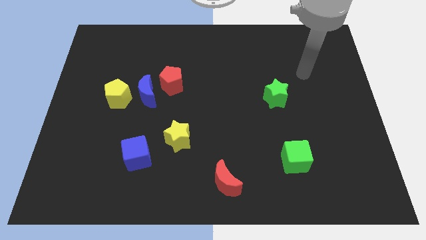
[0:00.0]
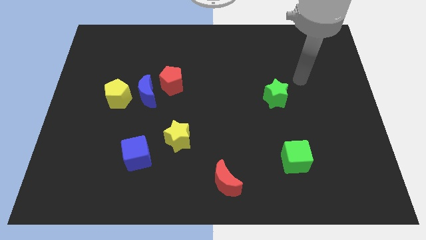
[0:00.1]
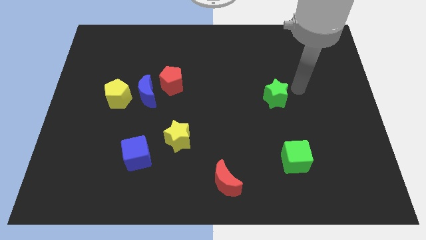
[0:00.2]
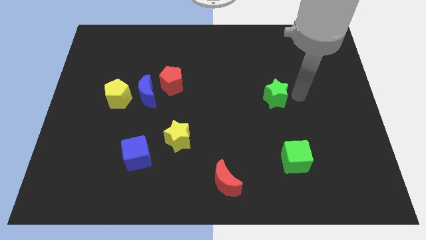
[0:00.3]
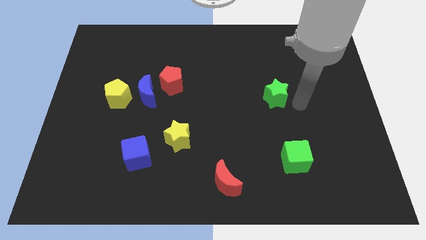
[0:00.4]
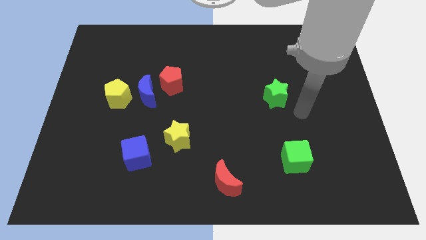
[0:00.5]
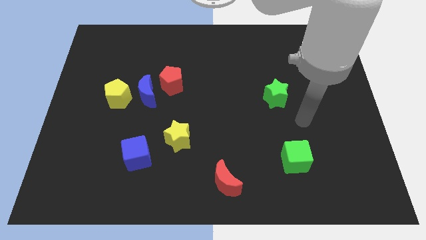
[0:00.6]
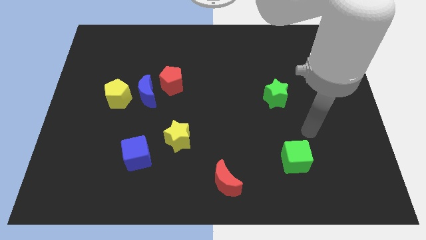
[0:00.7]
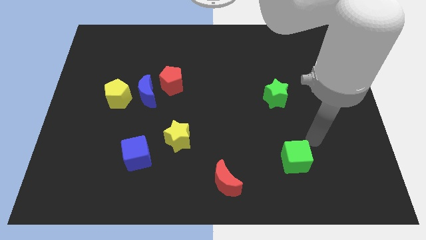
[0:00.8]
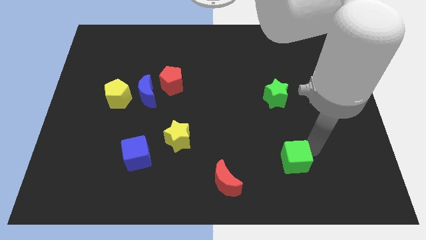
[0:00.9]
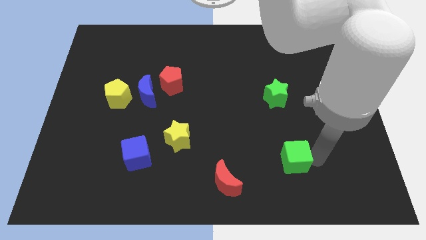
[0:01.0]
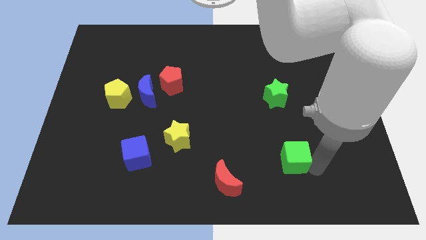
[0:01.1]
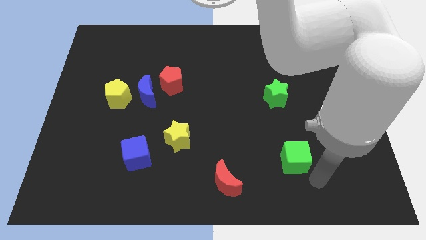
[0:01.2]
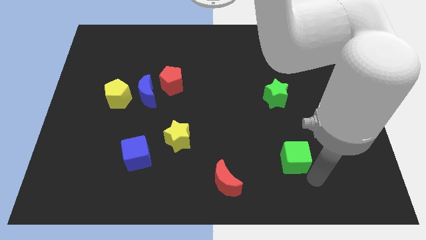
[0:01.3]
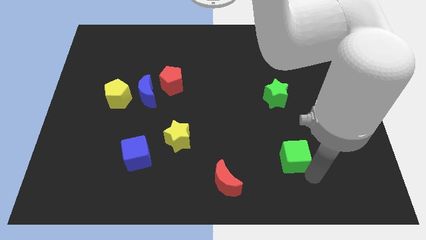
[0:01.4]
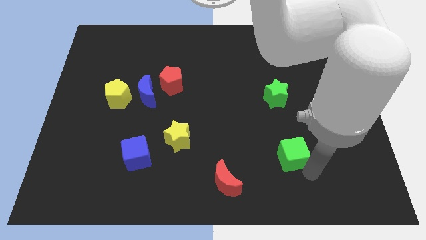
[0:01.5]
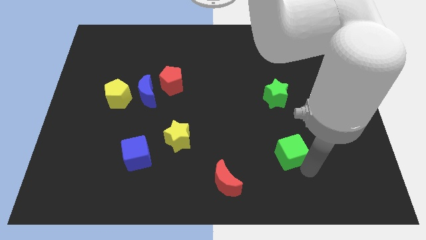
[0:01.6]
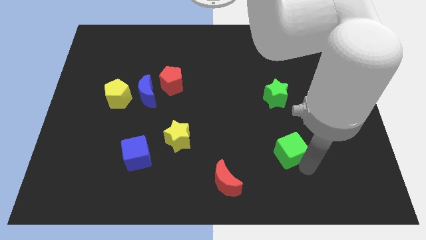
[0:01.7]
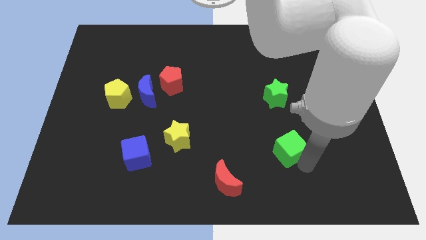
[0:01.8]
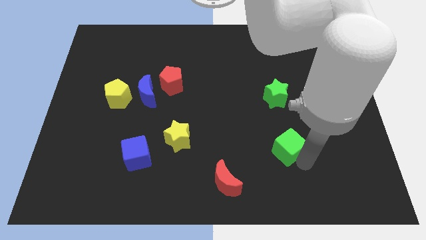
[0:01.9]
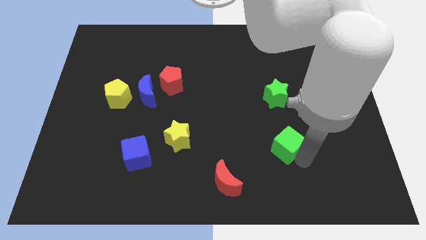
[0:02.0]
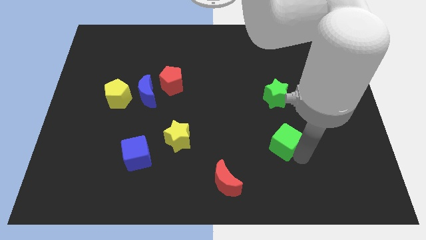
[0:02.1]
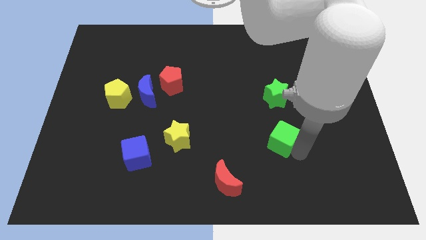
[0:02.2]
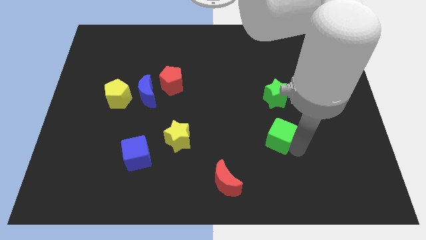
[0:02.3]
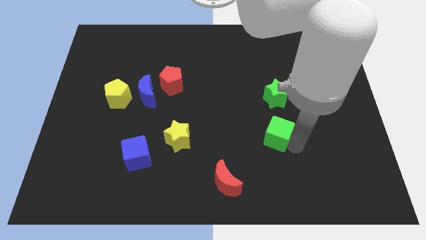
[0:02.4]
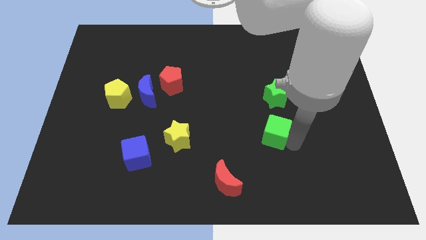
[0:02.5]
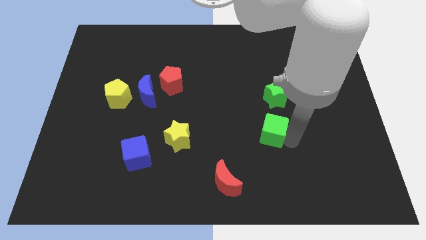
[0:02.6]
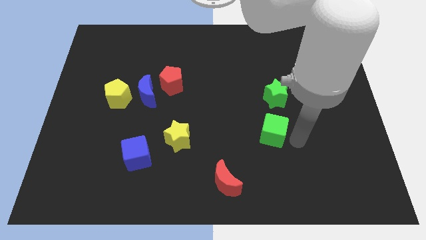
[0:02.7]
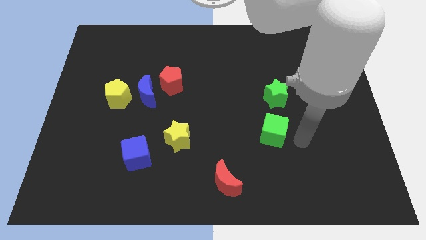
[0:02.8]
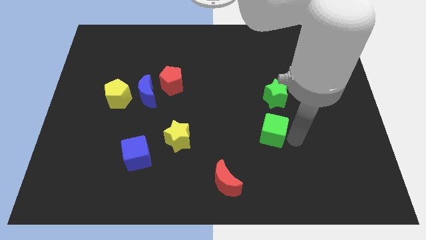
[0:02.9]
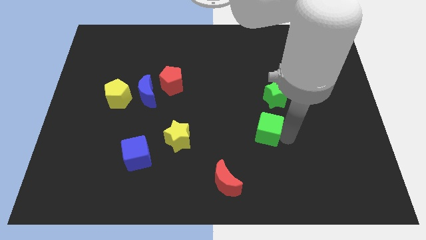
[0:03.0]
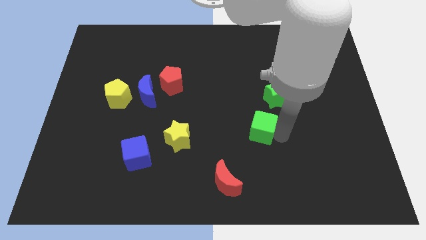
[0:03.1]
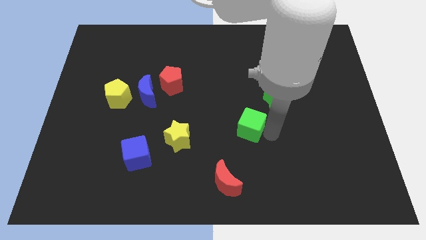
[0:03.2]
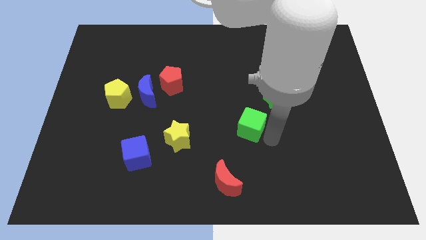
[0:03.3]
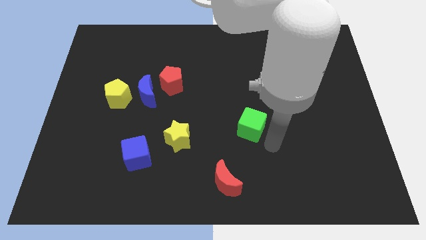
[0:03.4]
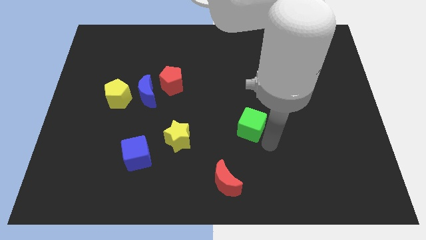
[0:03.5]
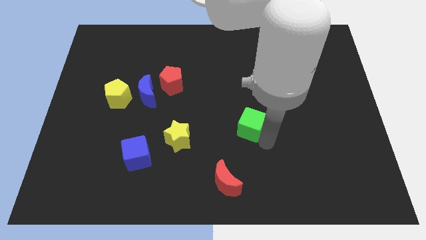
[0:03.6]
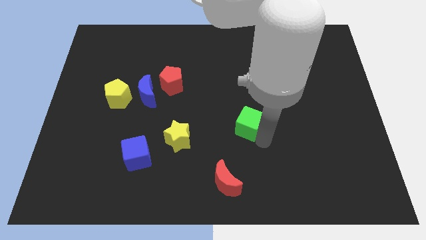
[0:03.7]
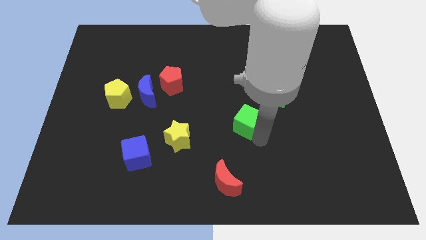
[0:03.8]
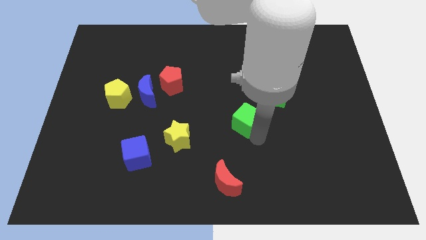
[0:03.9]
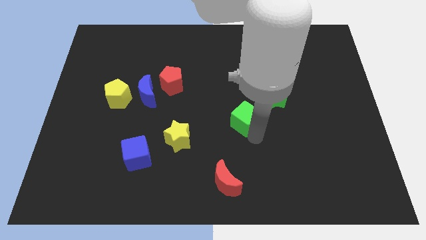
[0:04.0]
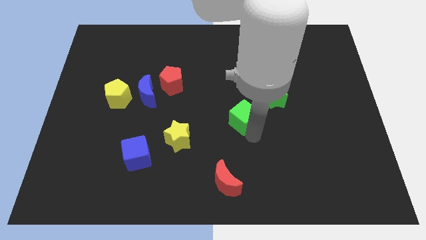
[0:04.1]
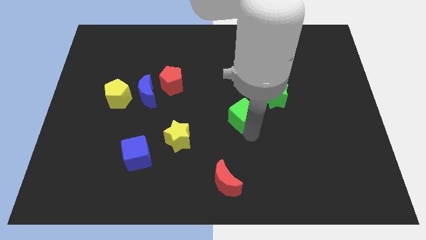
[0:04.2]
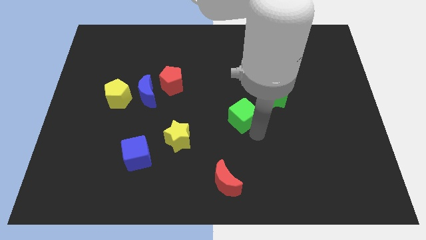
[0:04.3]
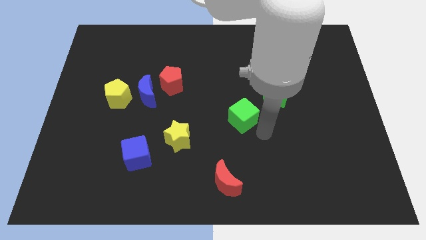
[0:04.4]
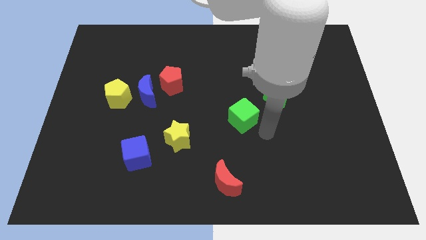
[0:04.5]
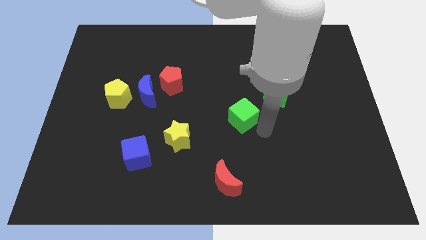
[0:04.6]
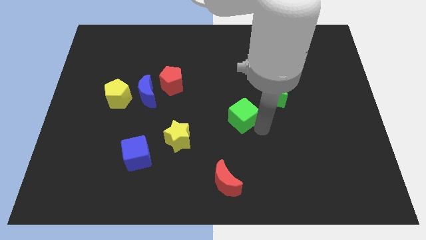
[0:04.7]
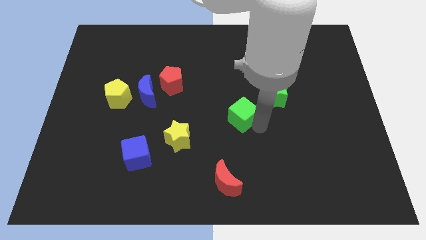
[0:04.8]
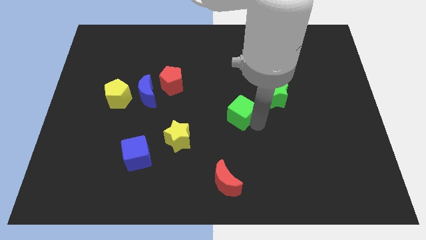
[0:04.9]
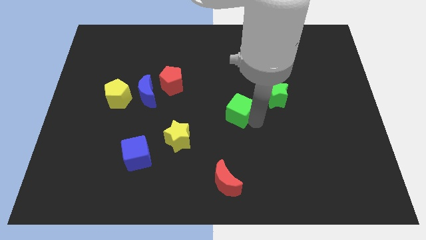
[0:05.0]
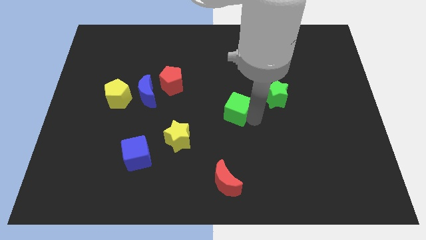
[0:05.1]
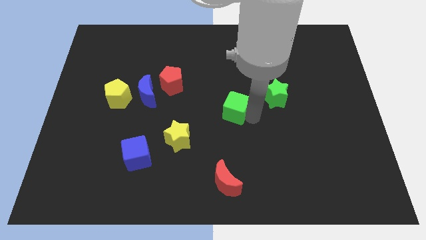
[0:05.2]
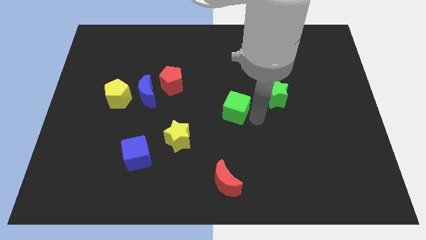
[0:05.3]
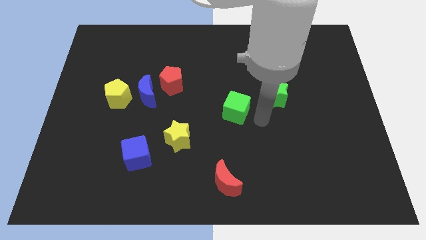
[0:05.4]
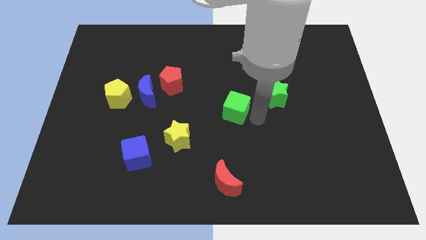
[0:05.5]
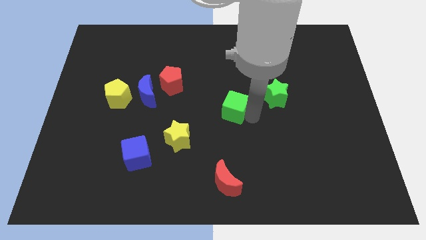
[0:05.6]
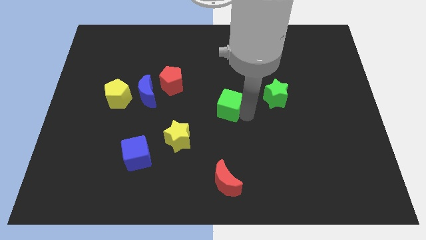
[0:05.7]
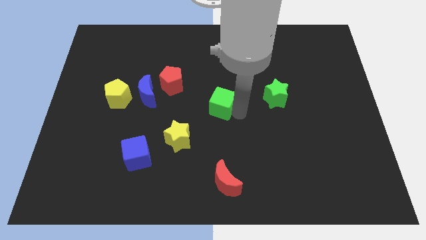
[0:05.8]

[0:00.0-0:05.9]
move the green cube up and to the left

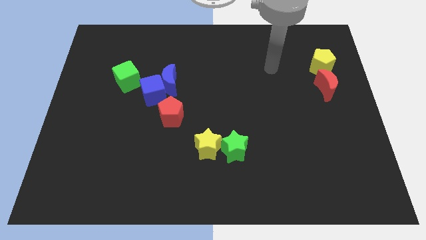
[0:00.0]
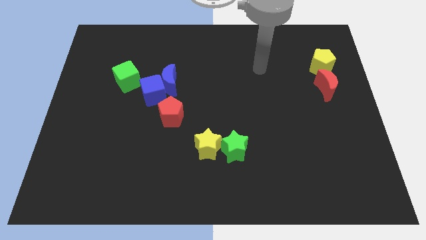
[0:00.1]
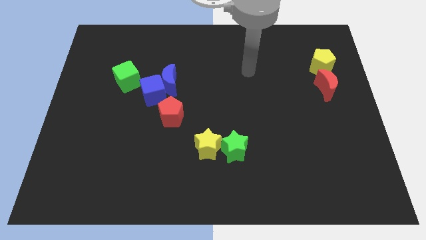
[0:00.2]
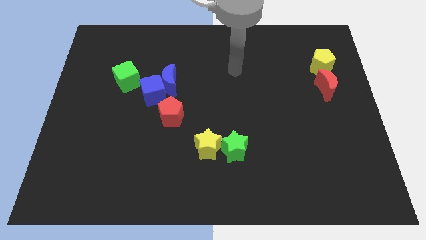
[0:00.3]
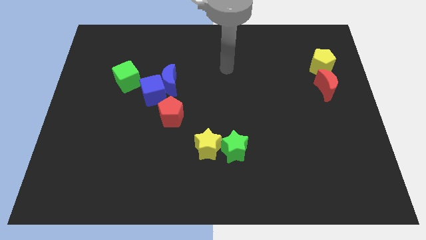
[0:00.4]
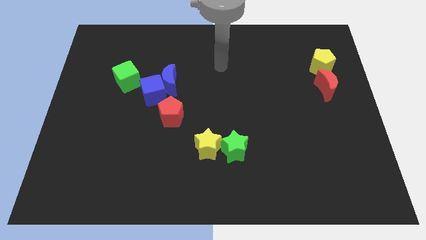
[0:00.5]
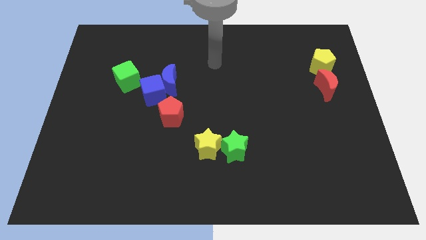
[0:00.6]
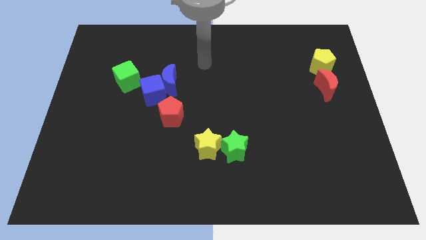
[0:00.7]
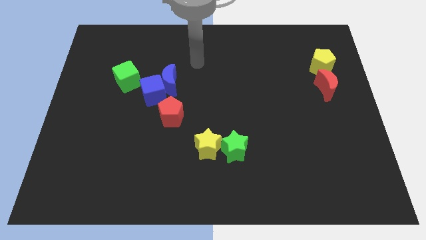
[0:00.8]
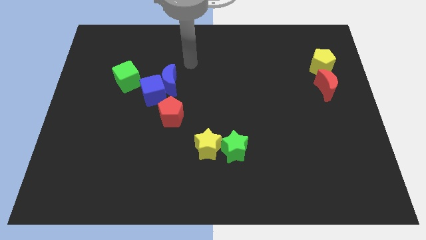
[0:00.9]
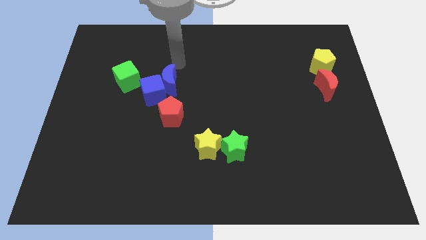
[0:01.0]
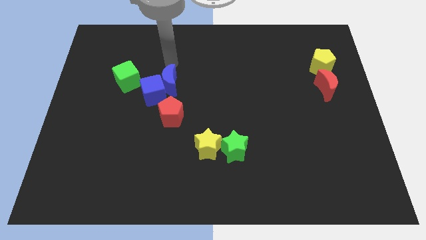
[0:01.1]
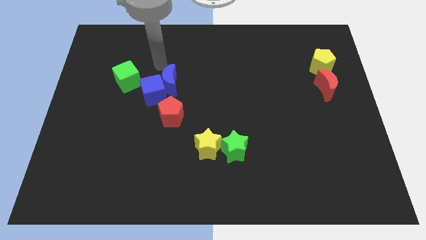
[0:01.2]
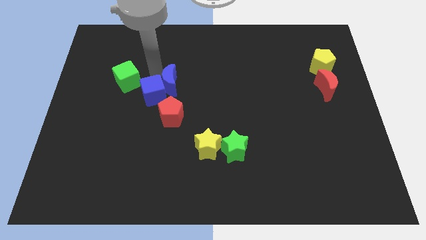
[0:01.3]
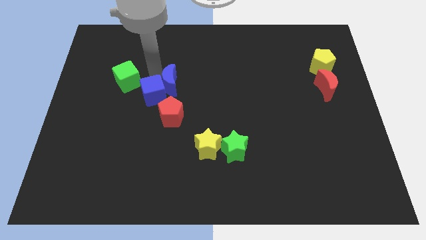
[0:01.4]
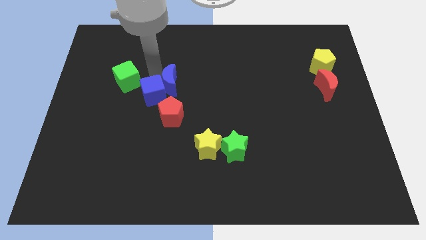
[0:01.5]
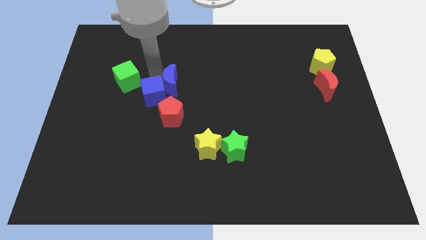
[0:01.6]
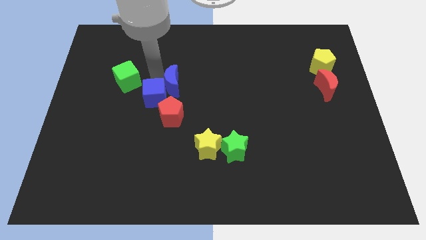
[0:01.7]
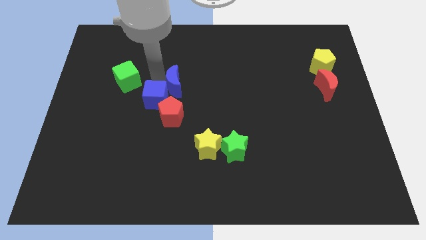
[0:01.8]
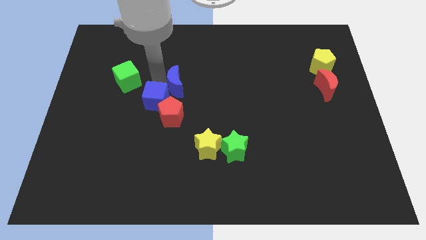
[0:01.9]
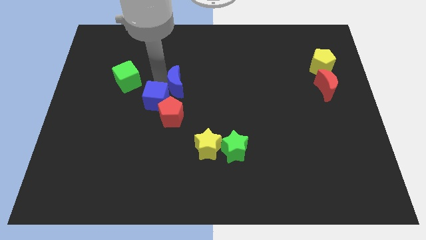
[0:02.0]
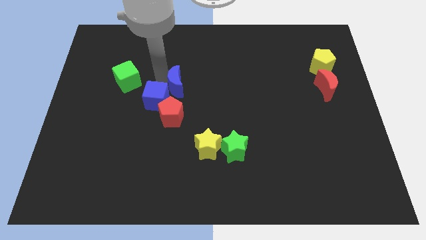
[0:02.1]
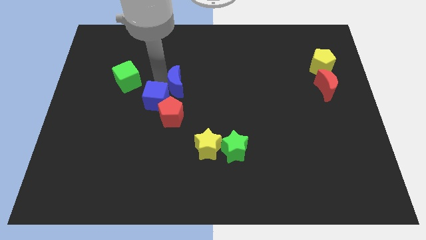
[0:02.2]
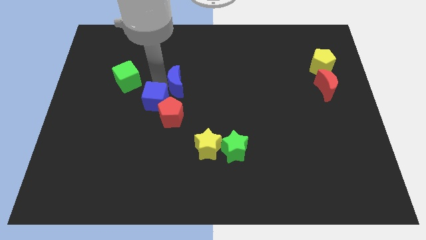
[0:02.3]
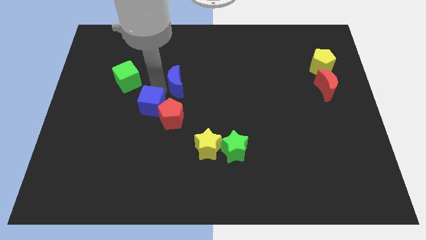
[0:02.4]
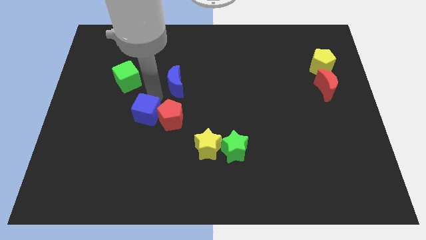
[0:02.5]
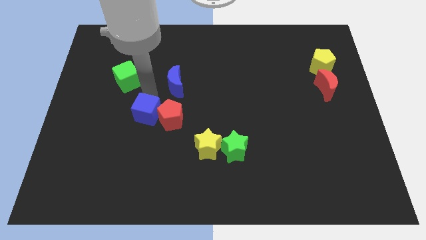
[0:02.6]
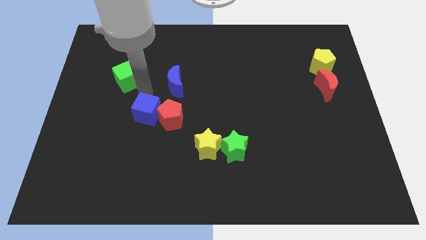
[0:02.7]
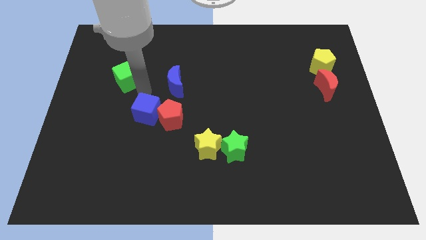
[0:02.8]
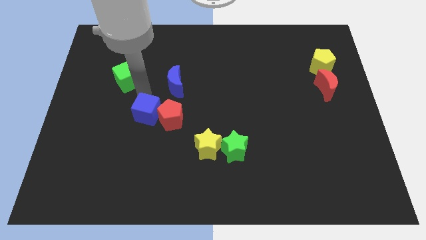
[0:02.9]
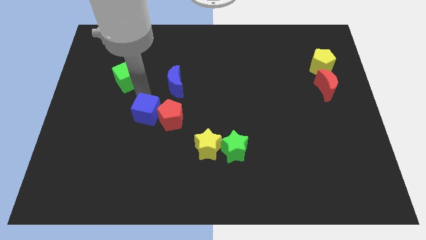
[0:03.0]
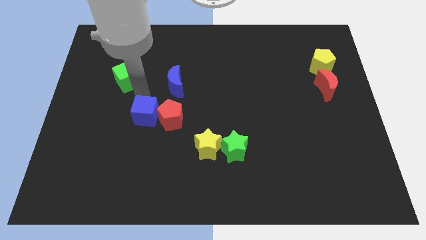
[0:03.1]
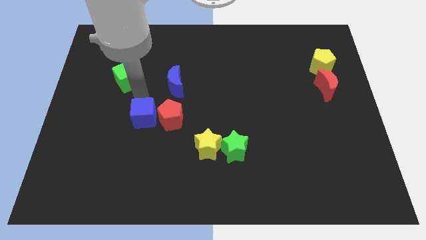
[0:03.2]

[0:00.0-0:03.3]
move the blue cube a little bit downwards
